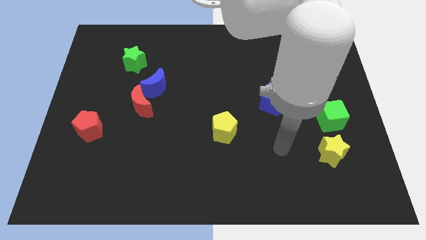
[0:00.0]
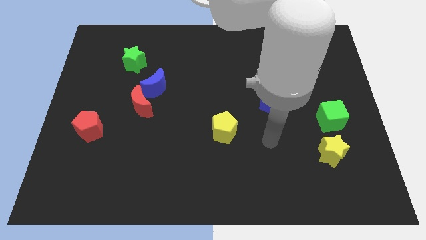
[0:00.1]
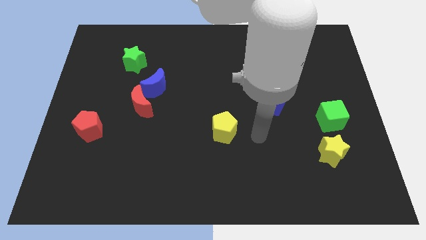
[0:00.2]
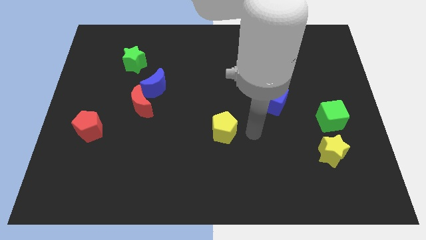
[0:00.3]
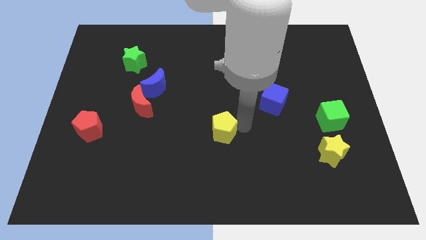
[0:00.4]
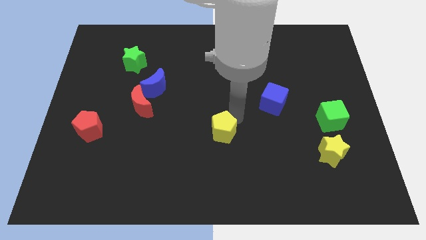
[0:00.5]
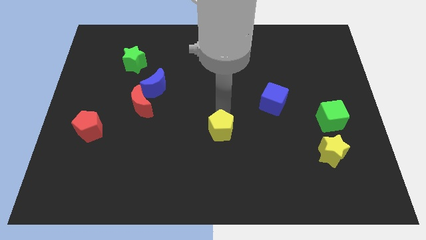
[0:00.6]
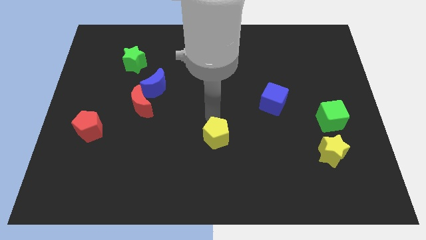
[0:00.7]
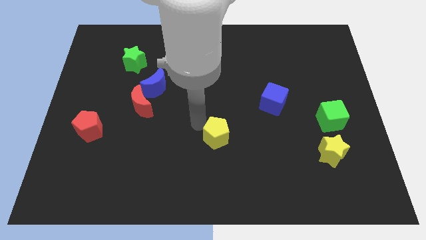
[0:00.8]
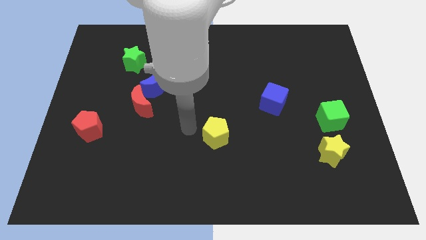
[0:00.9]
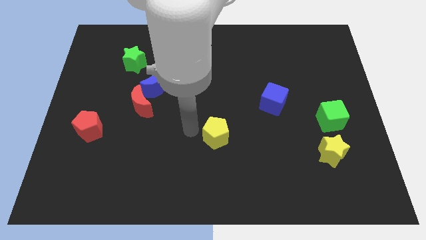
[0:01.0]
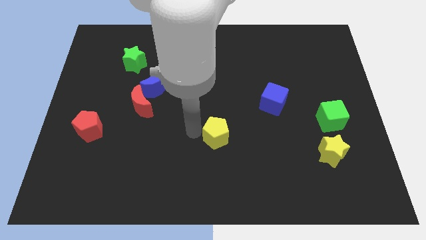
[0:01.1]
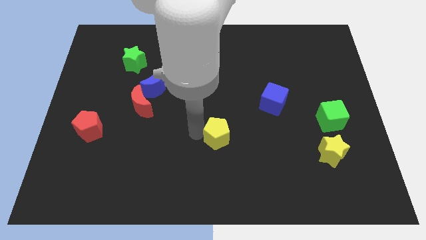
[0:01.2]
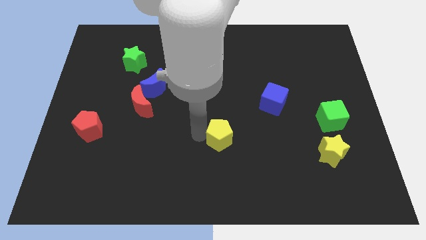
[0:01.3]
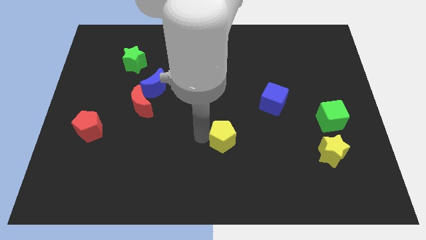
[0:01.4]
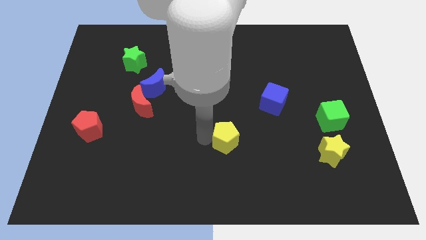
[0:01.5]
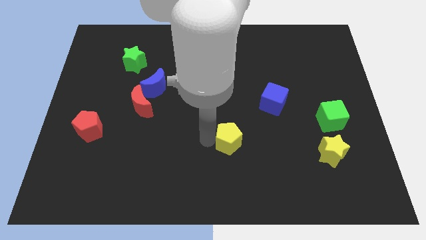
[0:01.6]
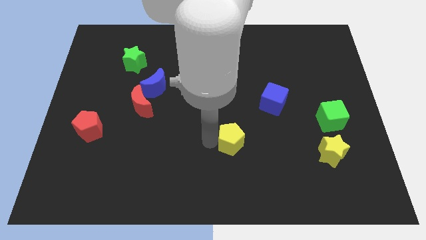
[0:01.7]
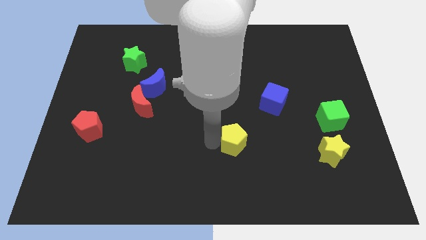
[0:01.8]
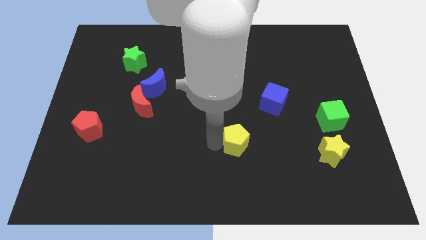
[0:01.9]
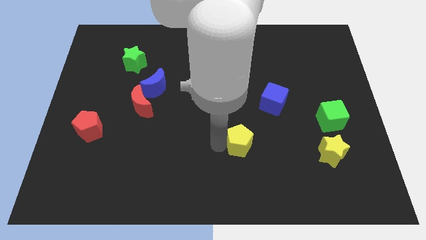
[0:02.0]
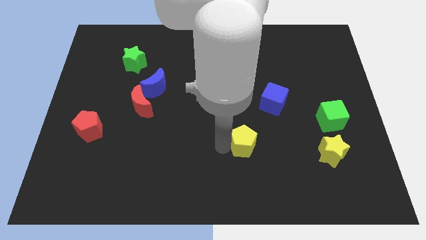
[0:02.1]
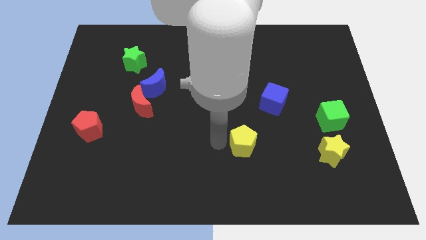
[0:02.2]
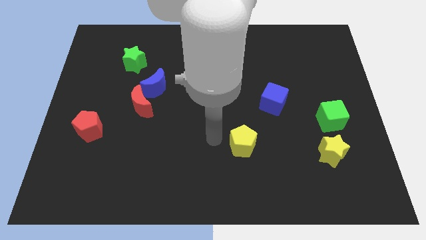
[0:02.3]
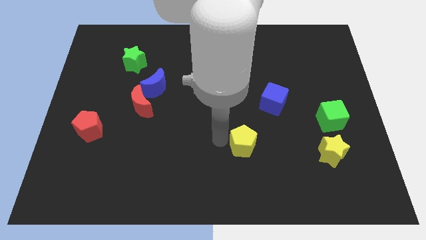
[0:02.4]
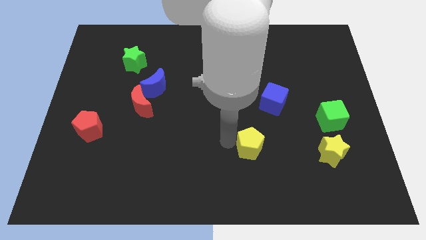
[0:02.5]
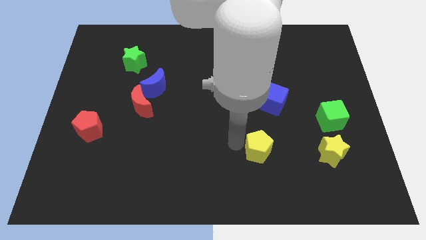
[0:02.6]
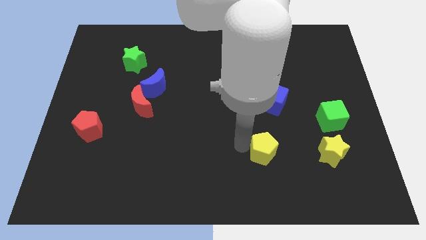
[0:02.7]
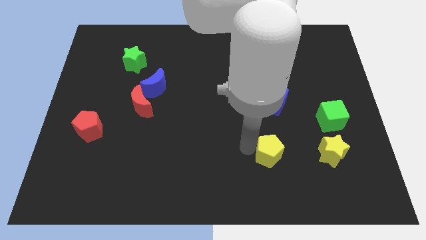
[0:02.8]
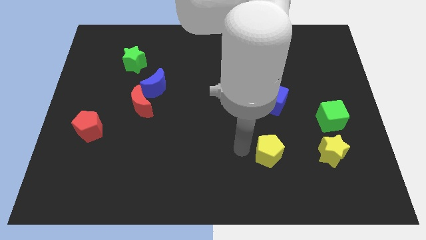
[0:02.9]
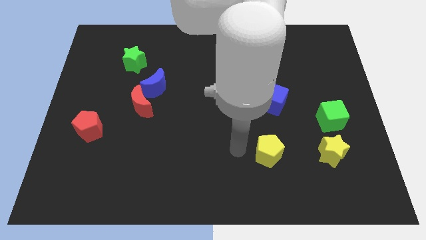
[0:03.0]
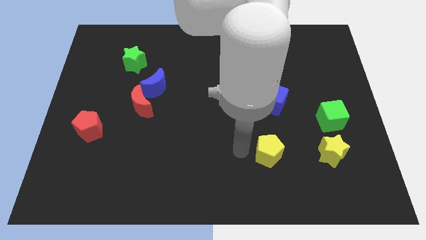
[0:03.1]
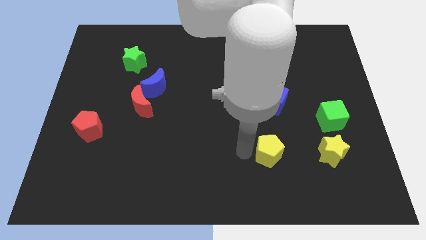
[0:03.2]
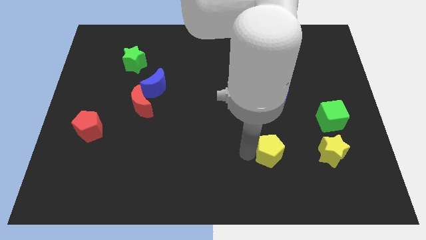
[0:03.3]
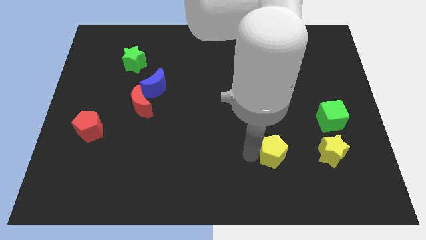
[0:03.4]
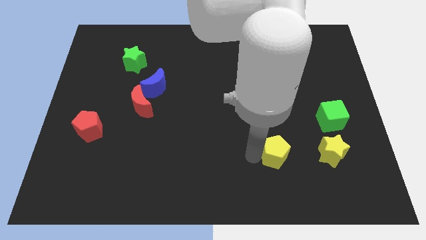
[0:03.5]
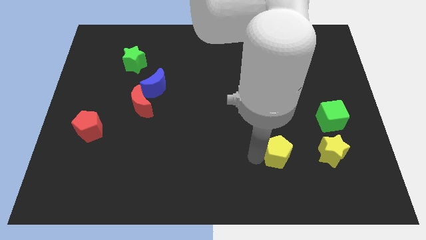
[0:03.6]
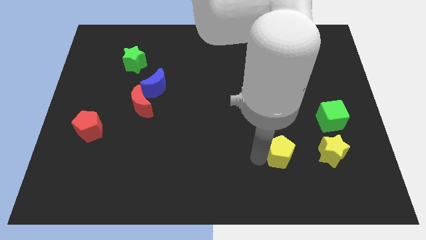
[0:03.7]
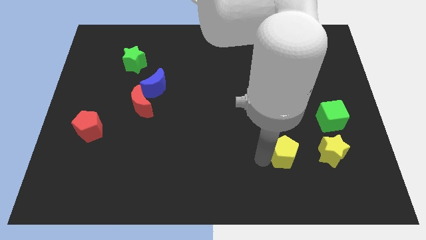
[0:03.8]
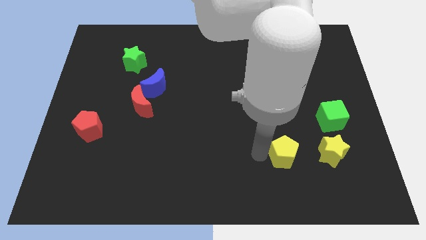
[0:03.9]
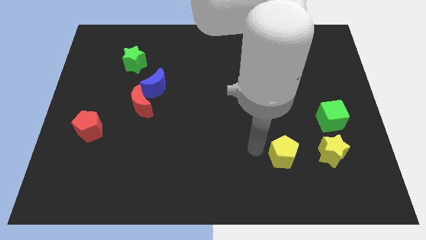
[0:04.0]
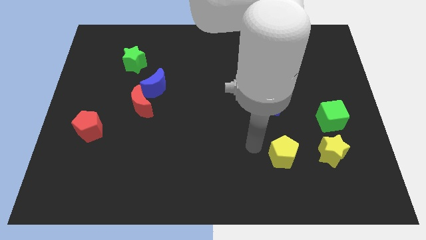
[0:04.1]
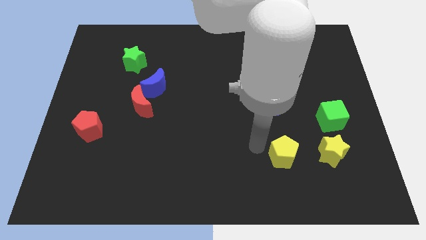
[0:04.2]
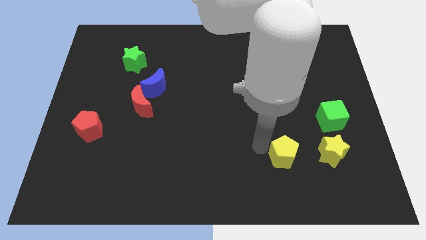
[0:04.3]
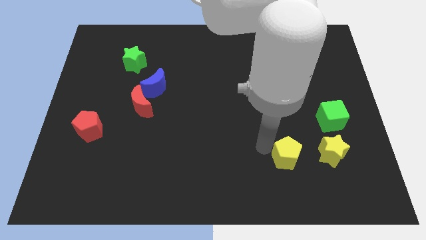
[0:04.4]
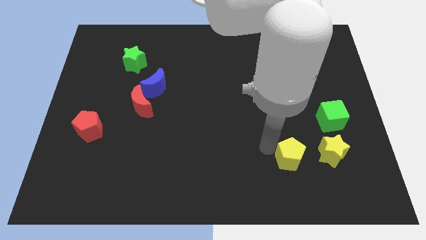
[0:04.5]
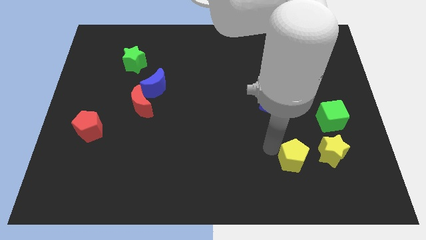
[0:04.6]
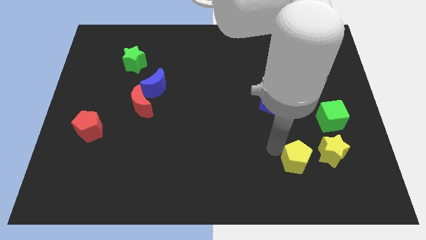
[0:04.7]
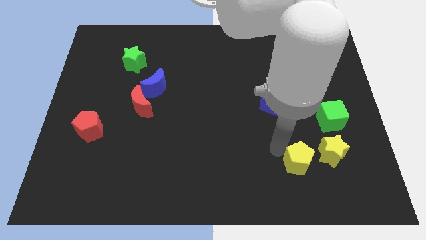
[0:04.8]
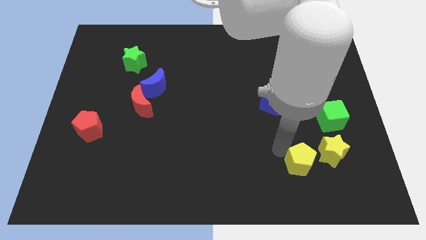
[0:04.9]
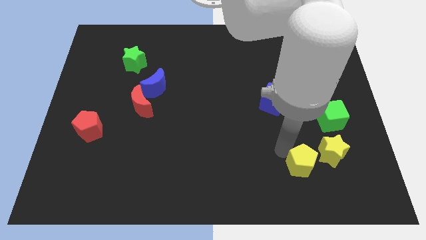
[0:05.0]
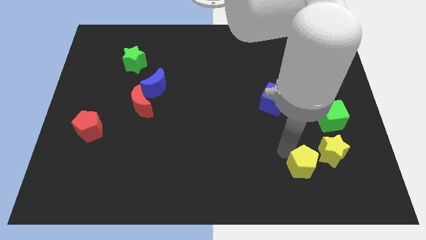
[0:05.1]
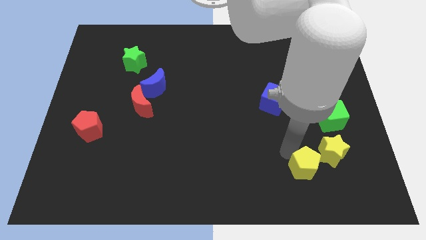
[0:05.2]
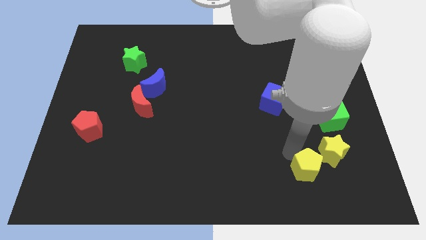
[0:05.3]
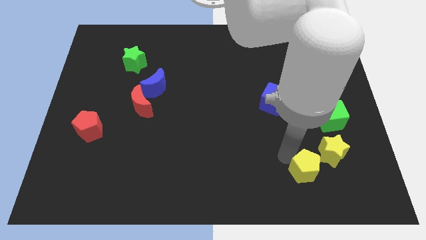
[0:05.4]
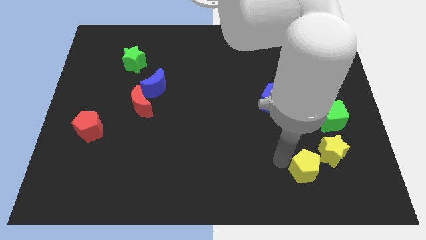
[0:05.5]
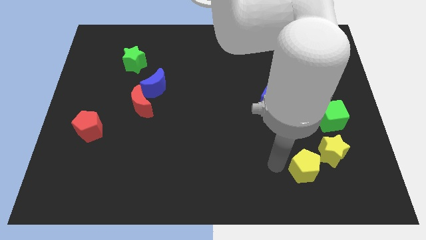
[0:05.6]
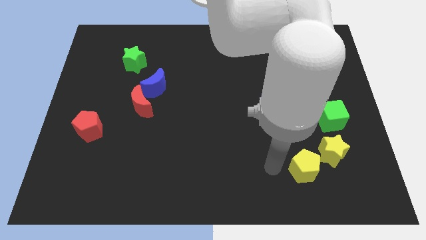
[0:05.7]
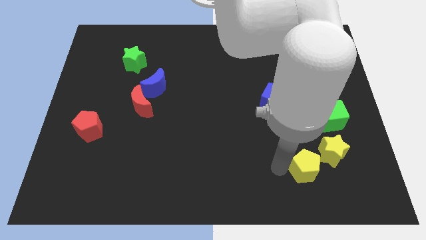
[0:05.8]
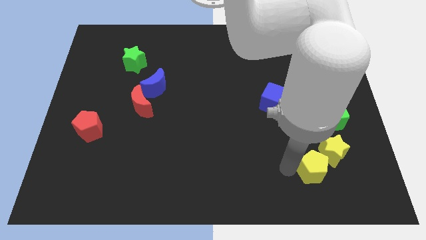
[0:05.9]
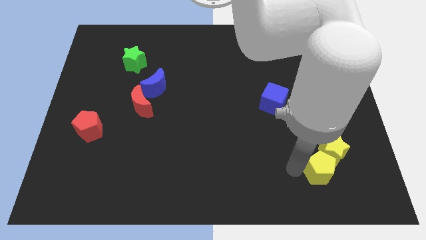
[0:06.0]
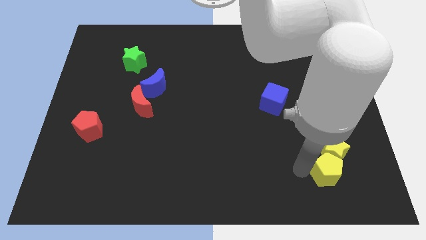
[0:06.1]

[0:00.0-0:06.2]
move the yellow pentagon to the bottom side of the green cube

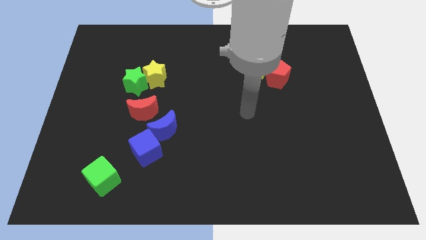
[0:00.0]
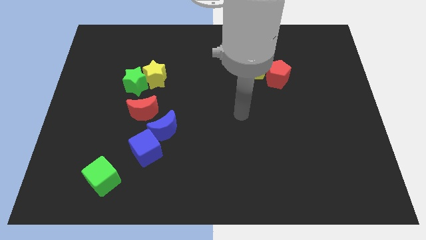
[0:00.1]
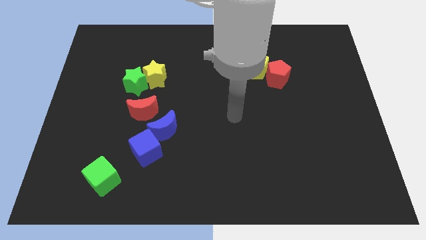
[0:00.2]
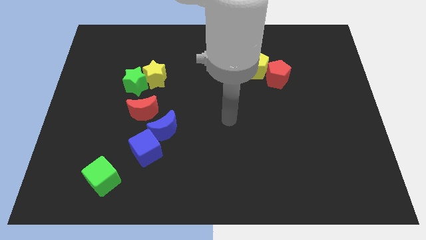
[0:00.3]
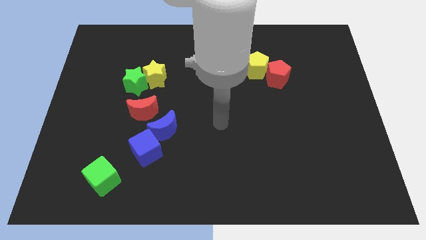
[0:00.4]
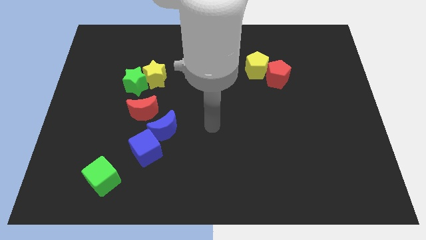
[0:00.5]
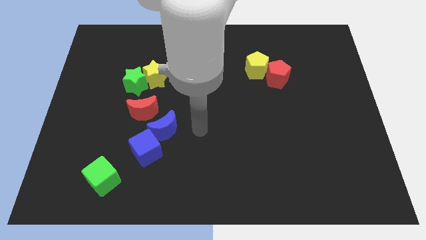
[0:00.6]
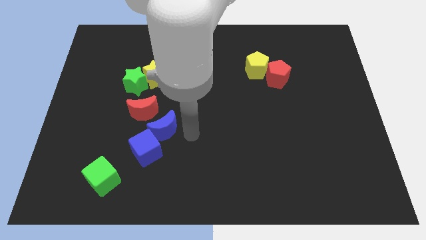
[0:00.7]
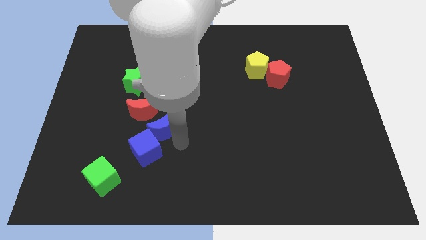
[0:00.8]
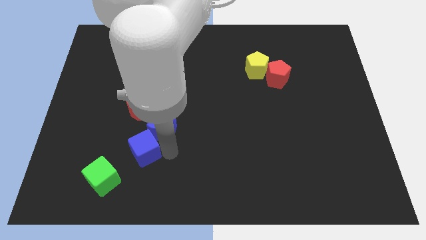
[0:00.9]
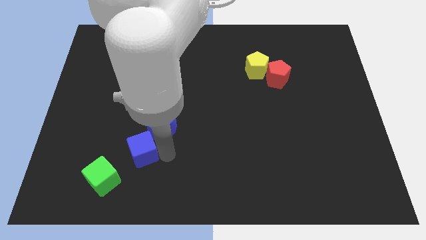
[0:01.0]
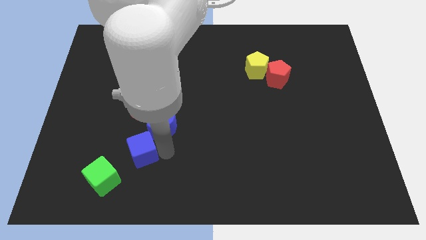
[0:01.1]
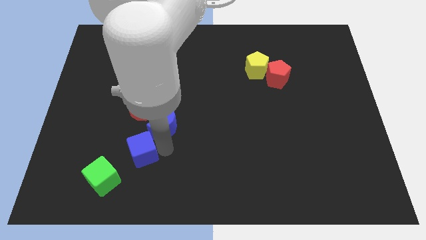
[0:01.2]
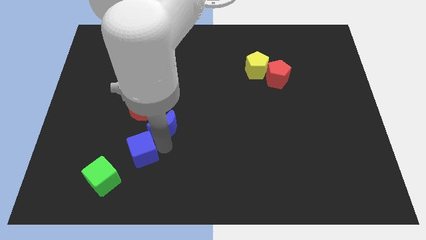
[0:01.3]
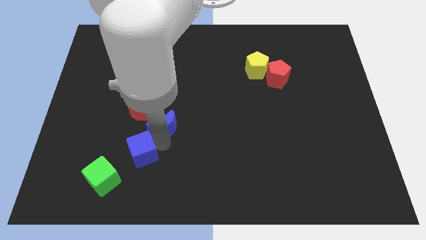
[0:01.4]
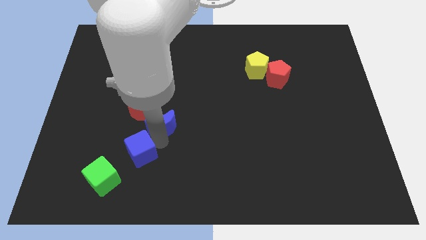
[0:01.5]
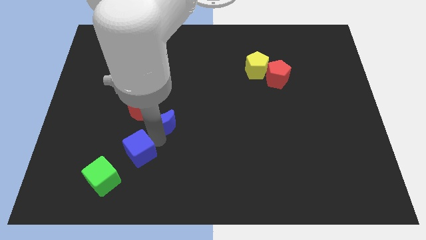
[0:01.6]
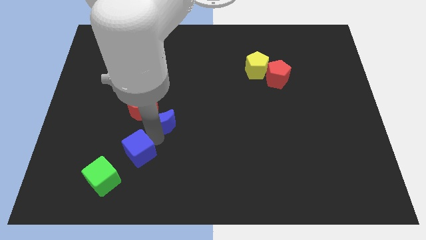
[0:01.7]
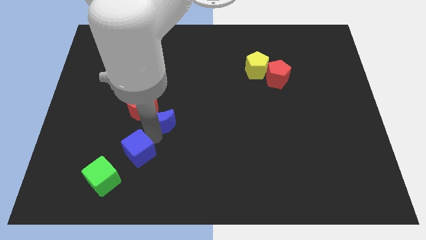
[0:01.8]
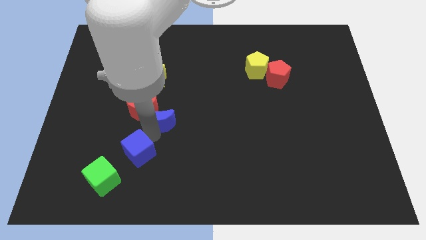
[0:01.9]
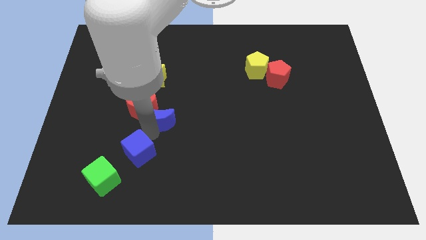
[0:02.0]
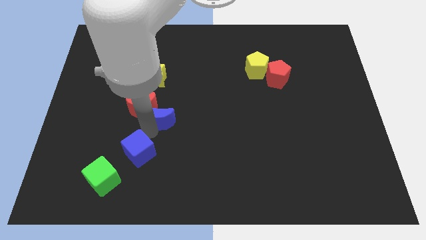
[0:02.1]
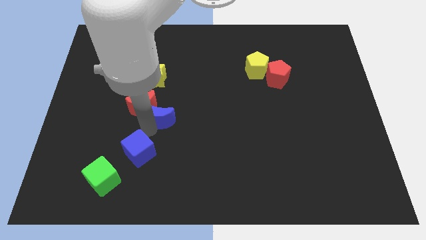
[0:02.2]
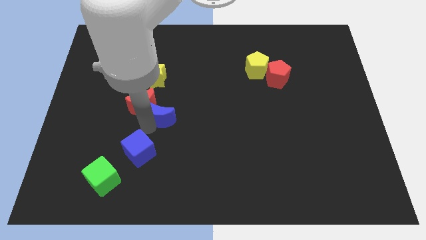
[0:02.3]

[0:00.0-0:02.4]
put the blue moon to the bottom right side of the green star
